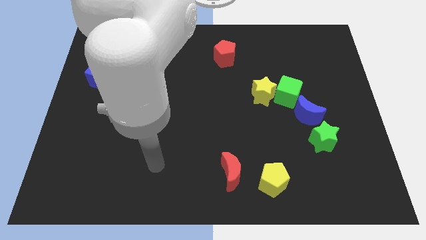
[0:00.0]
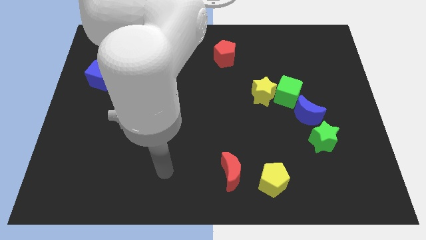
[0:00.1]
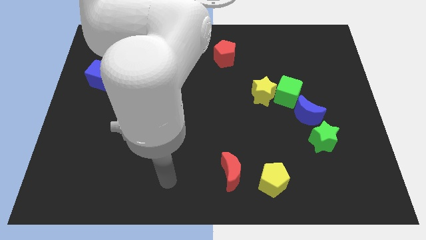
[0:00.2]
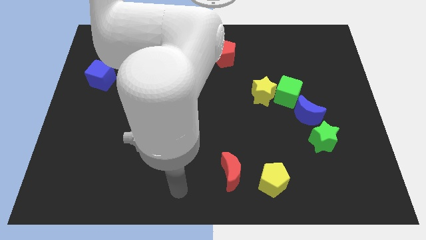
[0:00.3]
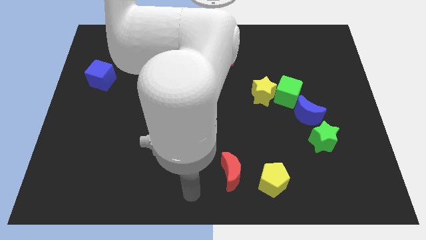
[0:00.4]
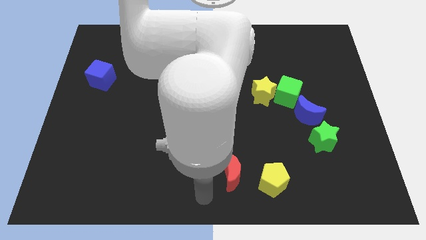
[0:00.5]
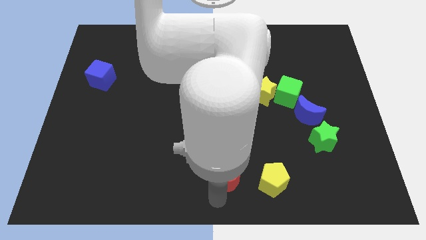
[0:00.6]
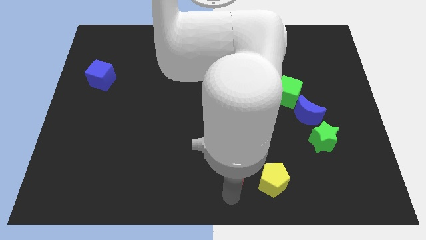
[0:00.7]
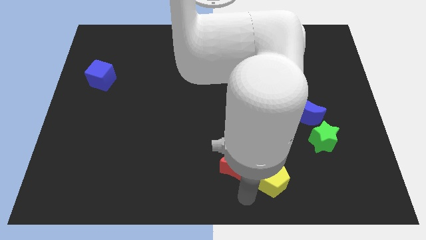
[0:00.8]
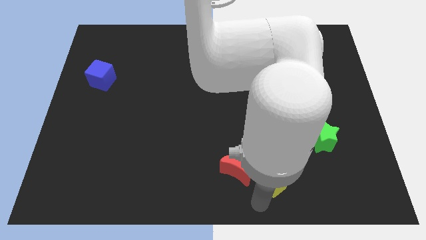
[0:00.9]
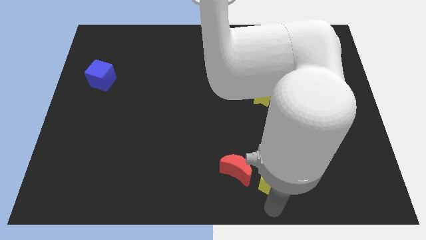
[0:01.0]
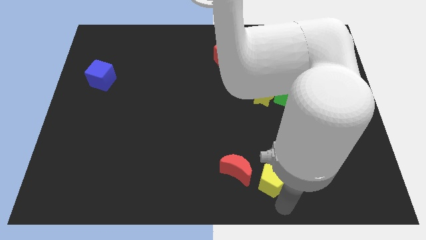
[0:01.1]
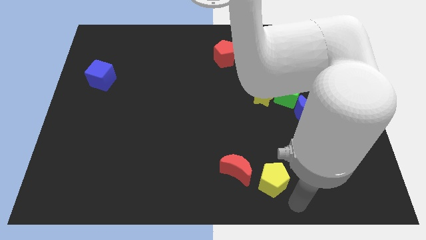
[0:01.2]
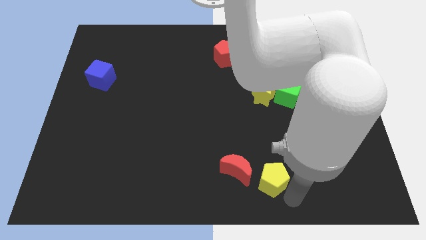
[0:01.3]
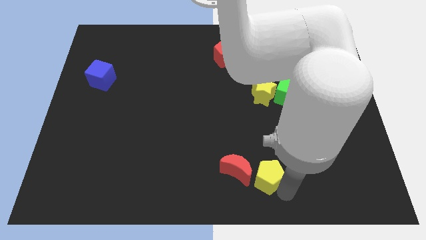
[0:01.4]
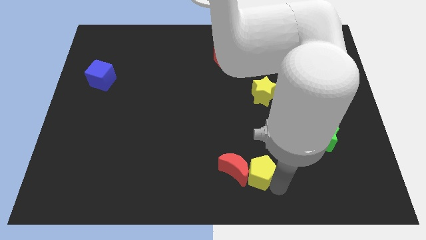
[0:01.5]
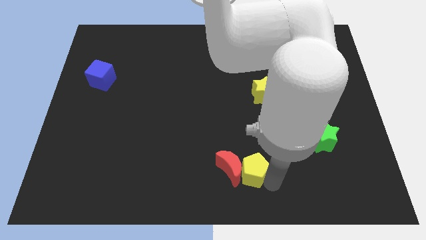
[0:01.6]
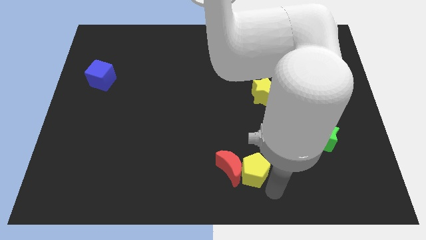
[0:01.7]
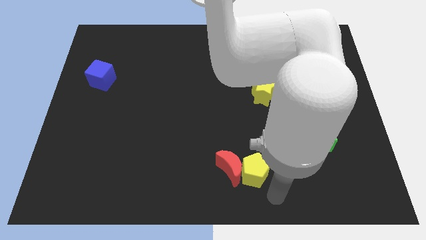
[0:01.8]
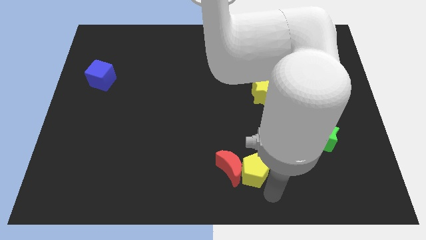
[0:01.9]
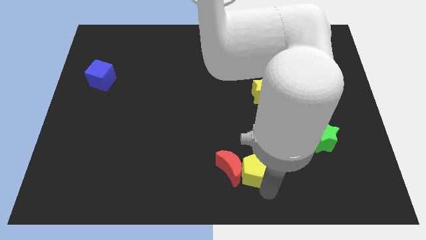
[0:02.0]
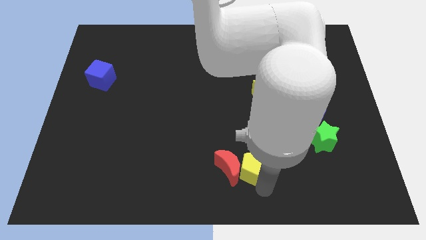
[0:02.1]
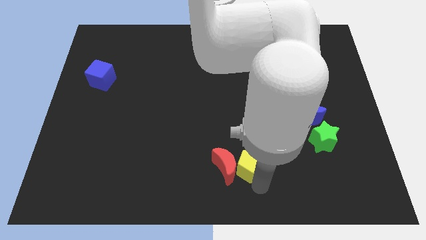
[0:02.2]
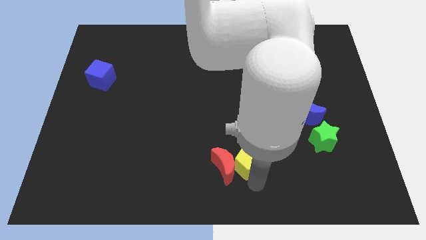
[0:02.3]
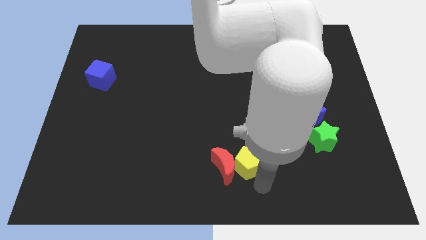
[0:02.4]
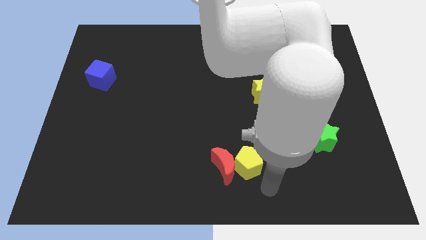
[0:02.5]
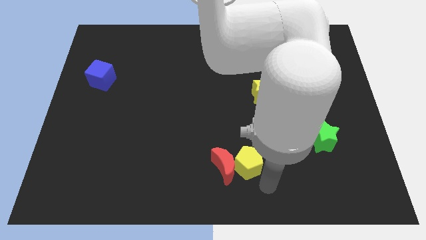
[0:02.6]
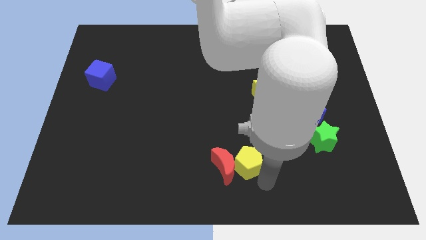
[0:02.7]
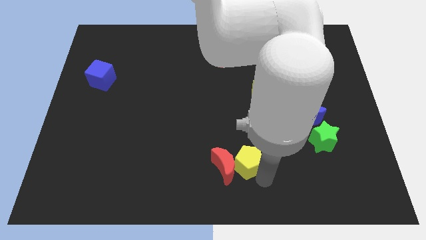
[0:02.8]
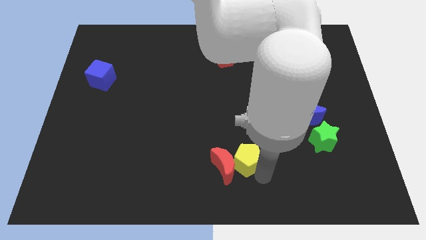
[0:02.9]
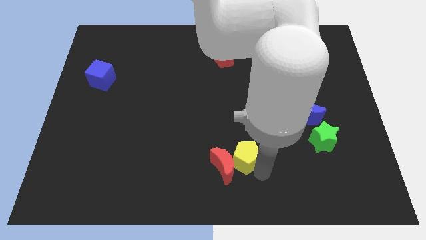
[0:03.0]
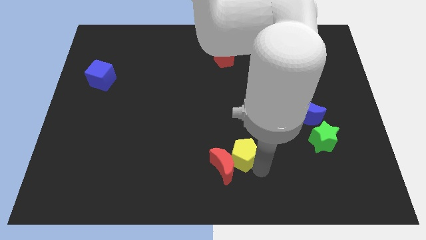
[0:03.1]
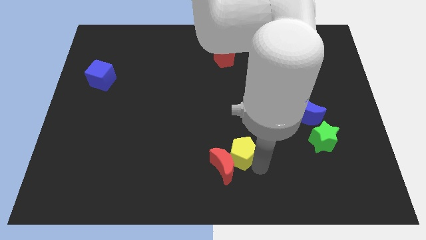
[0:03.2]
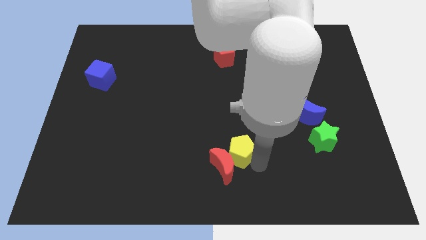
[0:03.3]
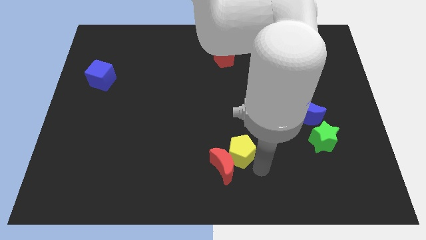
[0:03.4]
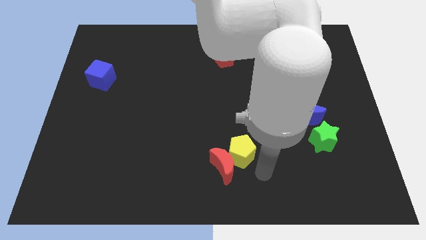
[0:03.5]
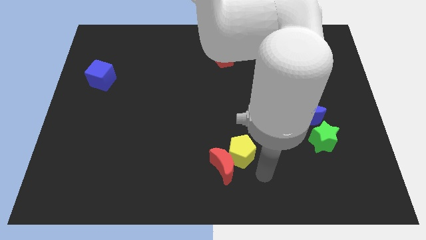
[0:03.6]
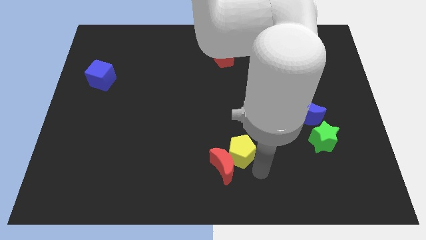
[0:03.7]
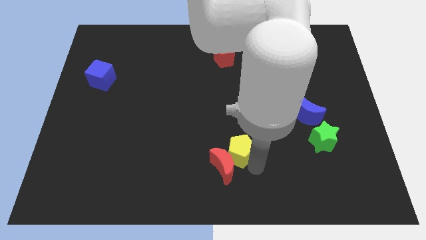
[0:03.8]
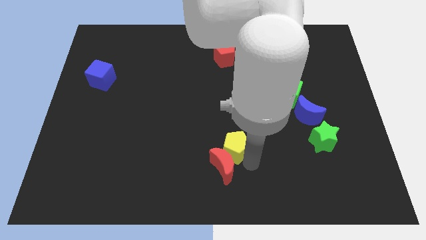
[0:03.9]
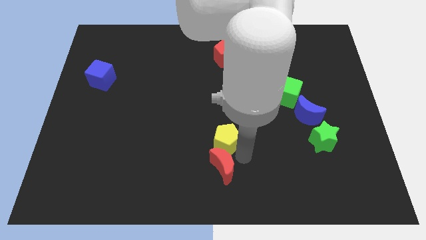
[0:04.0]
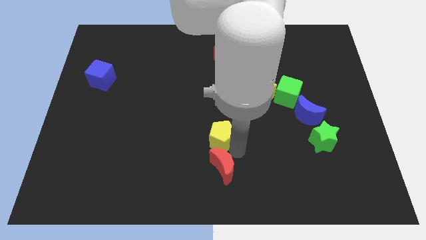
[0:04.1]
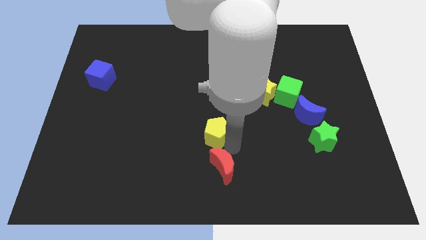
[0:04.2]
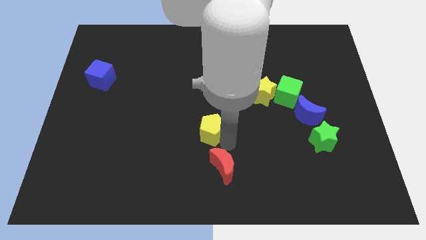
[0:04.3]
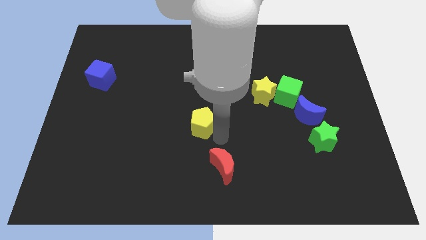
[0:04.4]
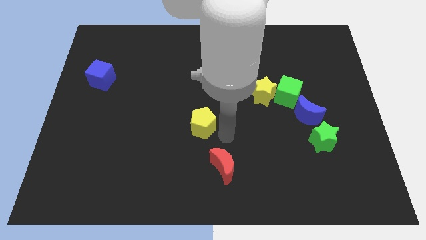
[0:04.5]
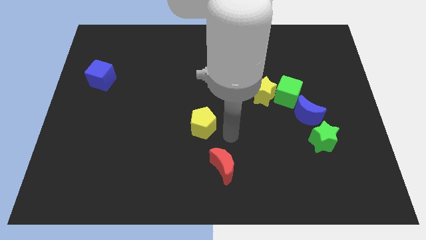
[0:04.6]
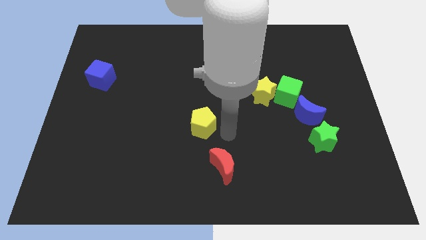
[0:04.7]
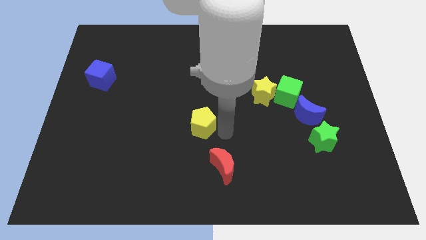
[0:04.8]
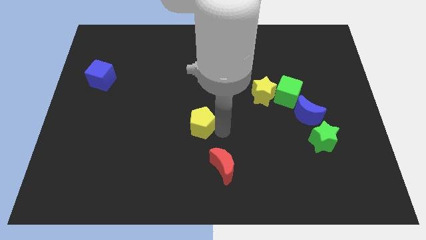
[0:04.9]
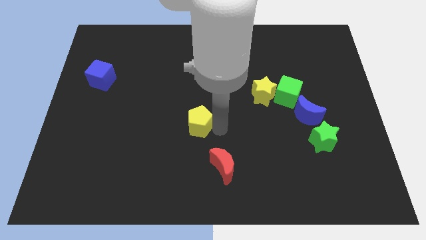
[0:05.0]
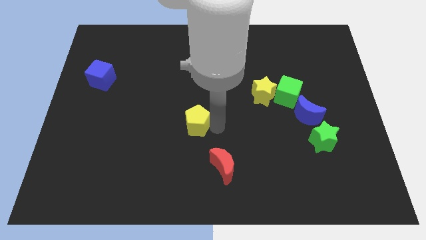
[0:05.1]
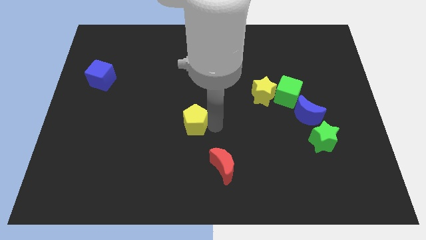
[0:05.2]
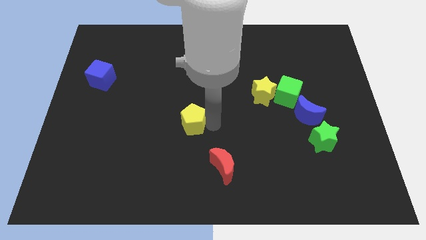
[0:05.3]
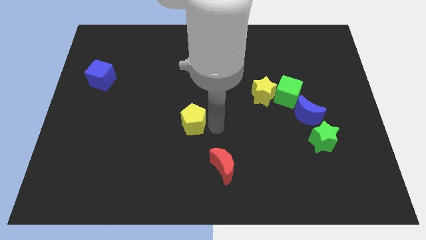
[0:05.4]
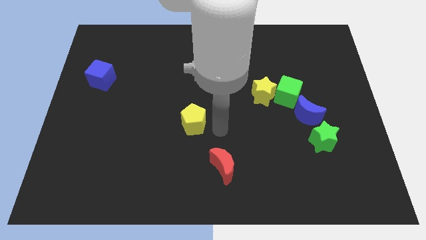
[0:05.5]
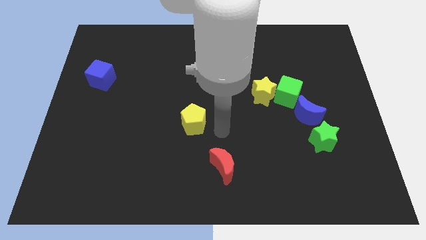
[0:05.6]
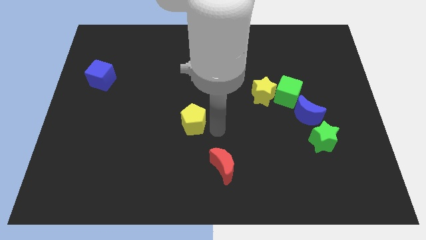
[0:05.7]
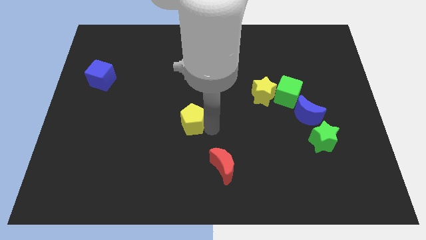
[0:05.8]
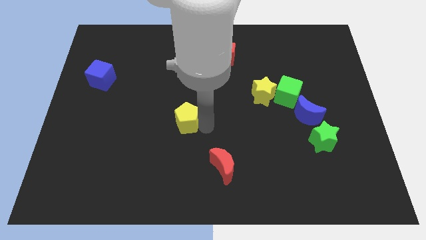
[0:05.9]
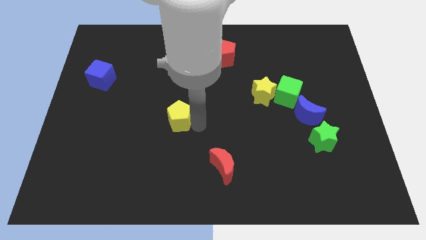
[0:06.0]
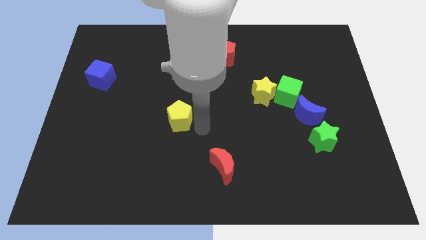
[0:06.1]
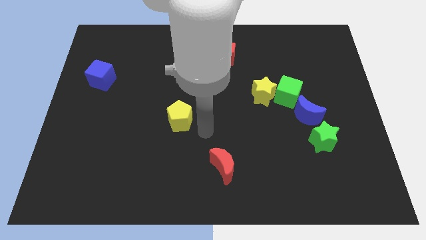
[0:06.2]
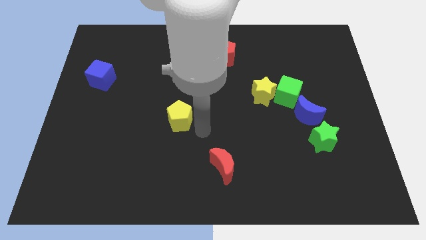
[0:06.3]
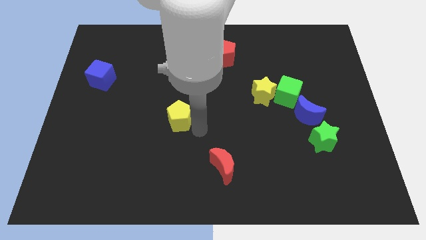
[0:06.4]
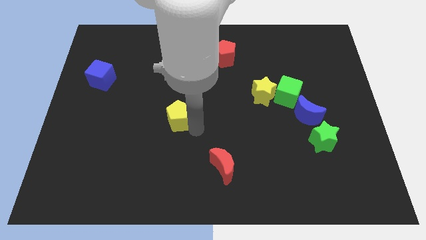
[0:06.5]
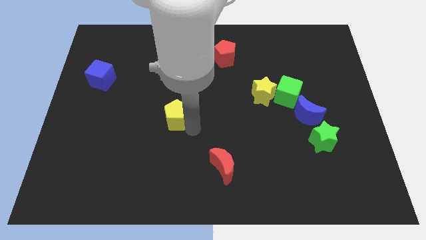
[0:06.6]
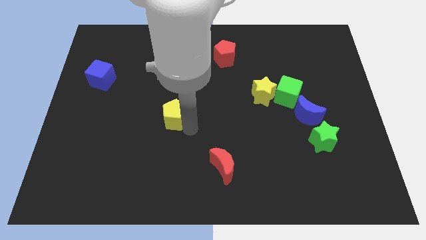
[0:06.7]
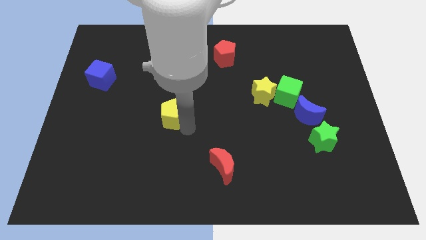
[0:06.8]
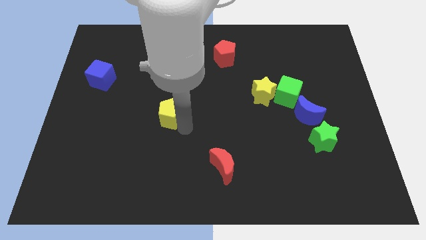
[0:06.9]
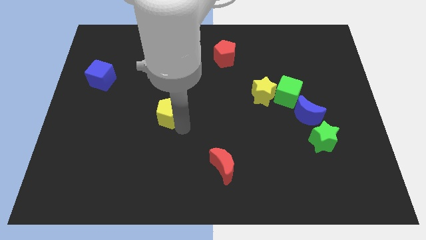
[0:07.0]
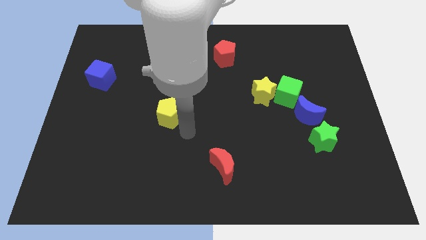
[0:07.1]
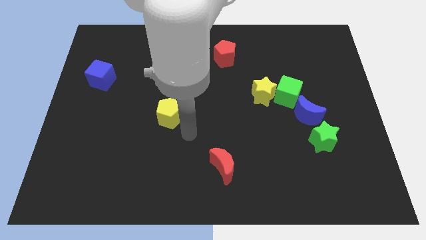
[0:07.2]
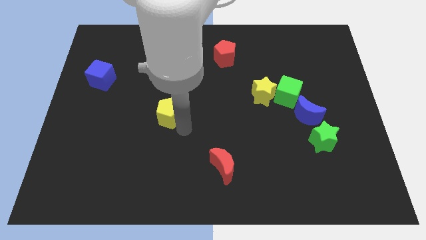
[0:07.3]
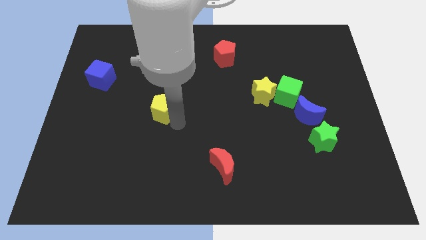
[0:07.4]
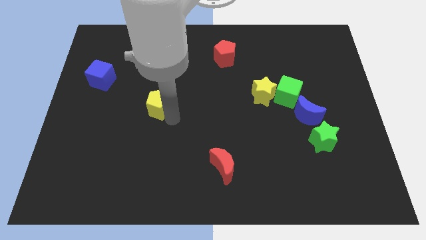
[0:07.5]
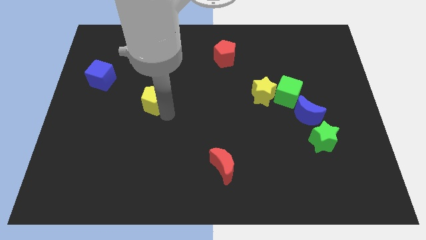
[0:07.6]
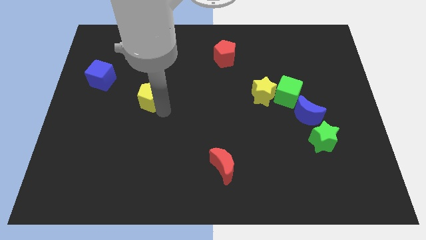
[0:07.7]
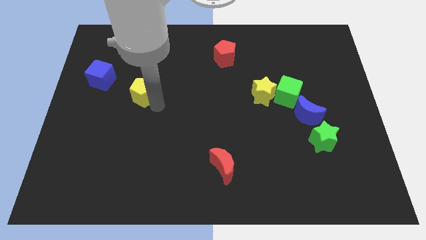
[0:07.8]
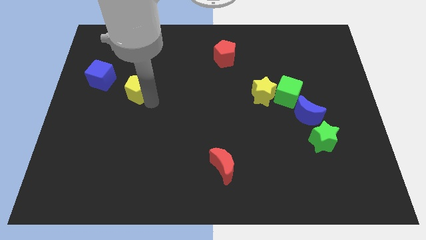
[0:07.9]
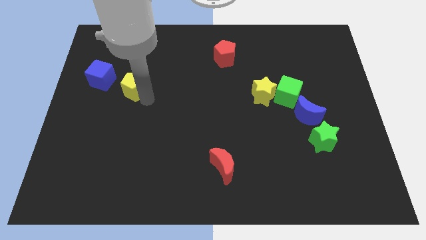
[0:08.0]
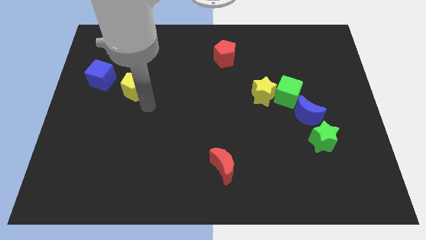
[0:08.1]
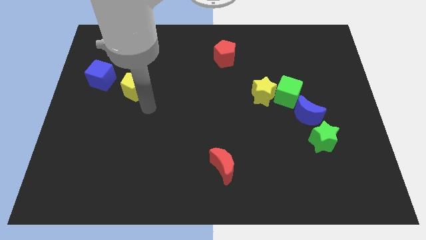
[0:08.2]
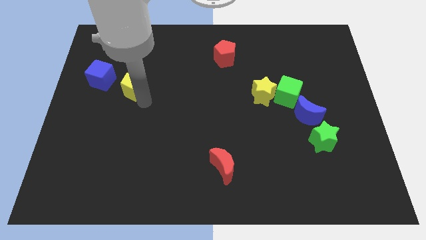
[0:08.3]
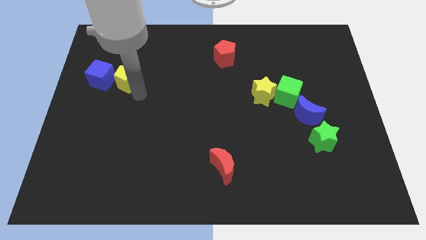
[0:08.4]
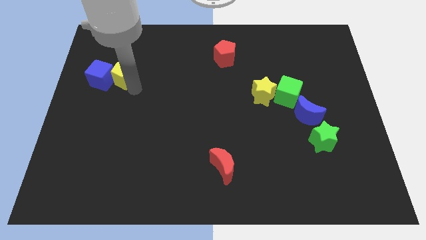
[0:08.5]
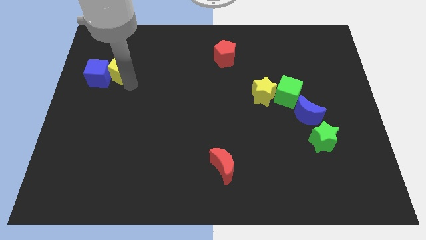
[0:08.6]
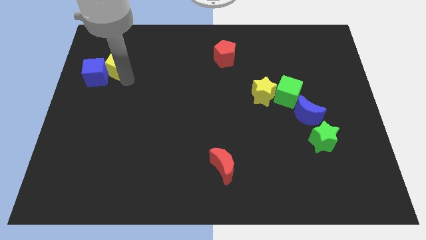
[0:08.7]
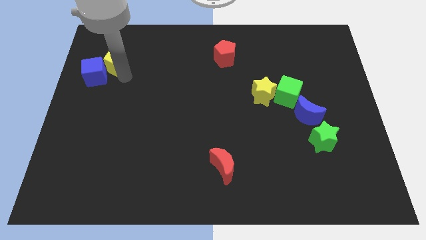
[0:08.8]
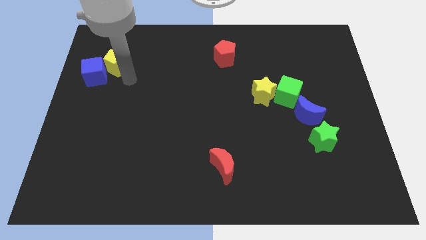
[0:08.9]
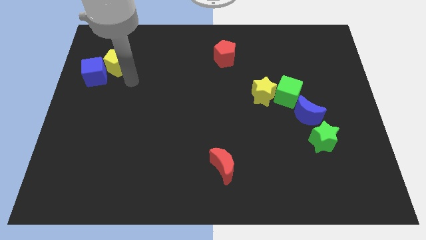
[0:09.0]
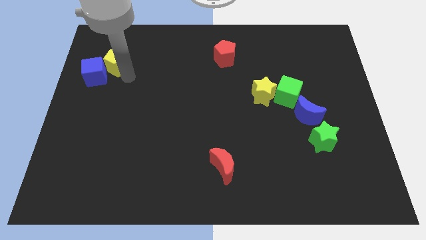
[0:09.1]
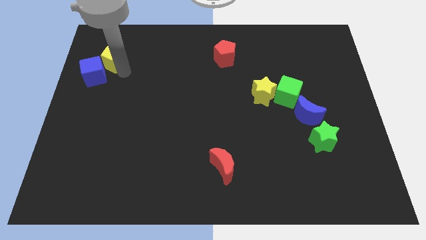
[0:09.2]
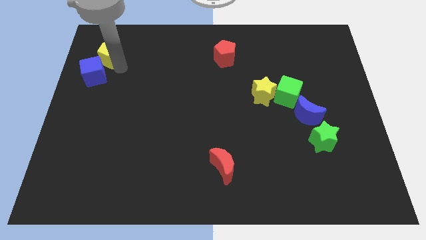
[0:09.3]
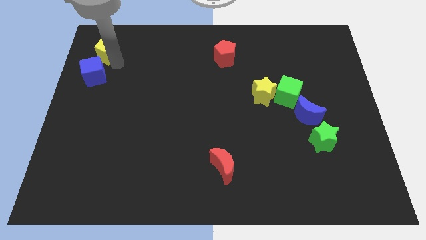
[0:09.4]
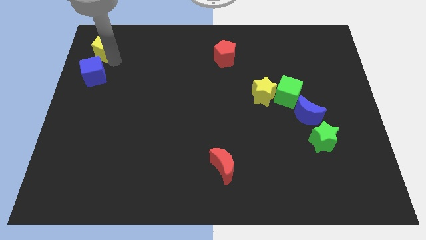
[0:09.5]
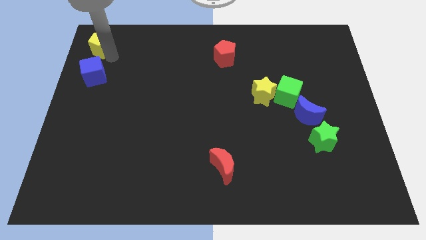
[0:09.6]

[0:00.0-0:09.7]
put the yellow pentagon to the top left
